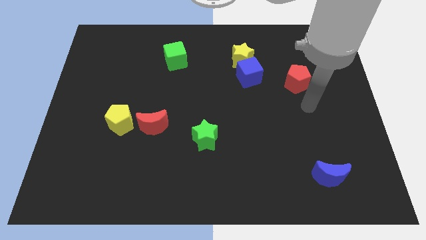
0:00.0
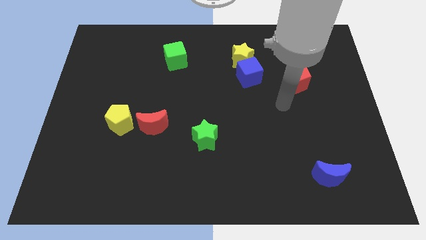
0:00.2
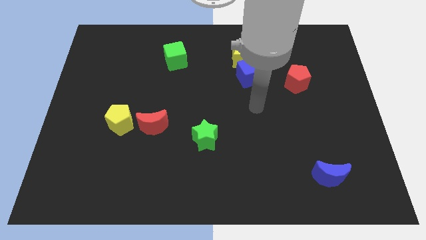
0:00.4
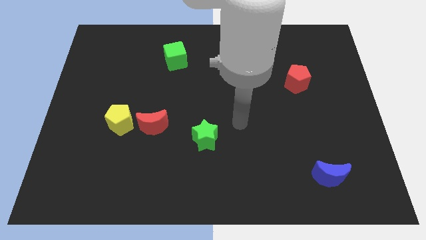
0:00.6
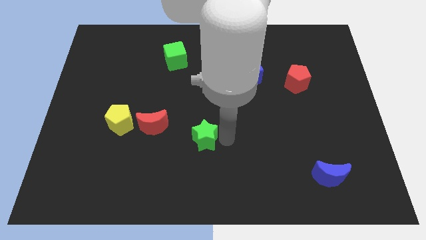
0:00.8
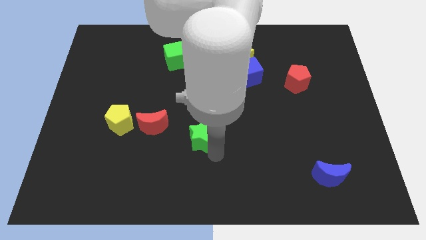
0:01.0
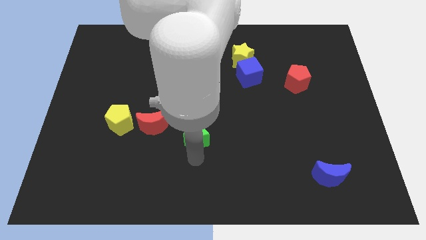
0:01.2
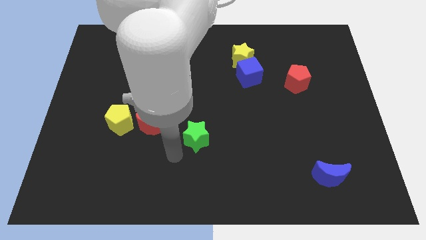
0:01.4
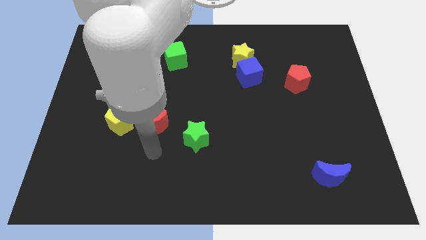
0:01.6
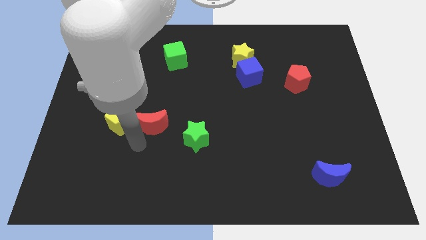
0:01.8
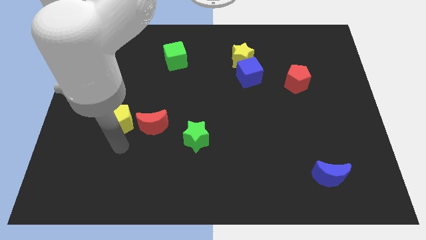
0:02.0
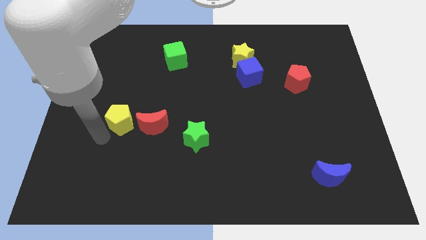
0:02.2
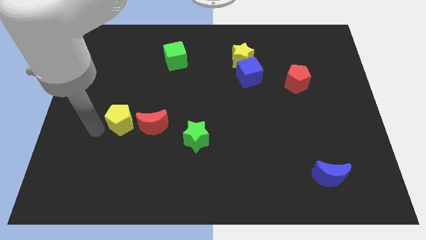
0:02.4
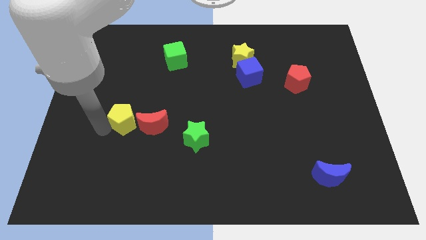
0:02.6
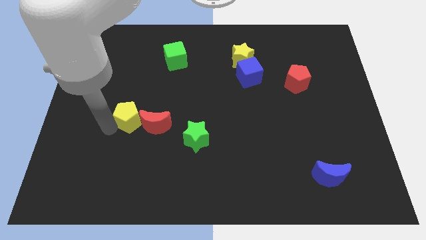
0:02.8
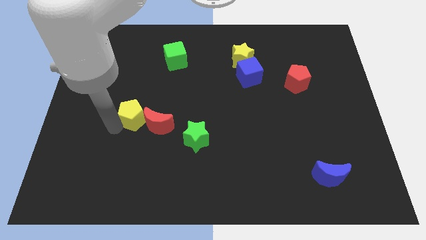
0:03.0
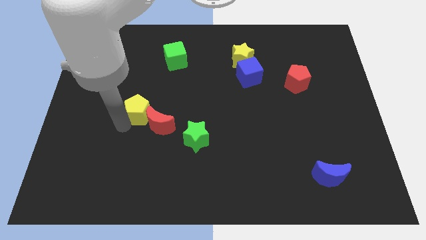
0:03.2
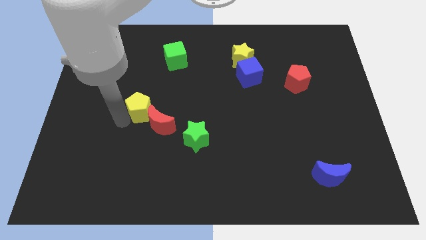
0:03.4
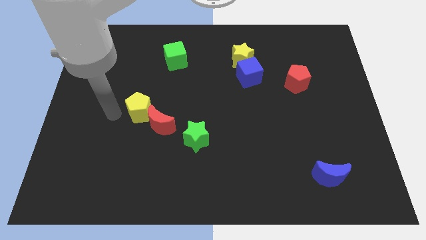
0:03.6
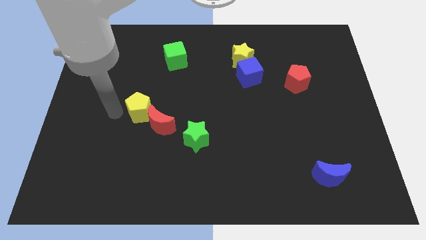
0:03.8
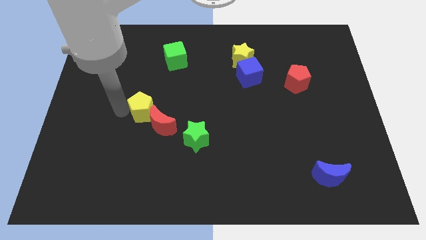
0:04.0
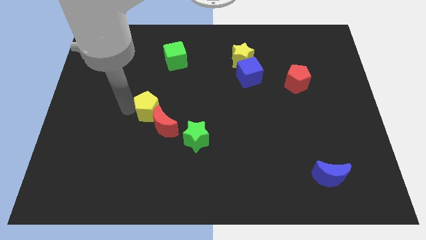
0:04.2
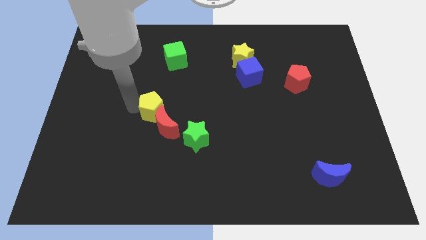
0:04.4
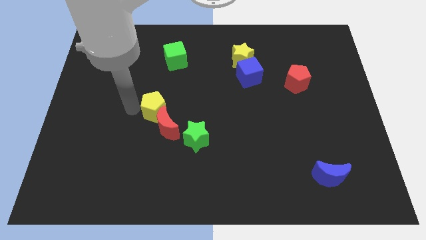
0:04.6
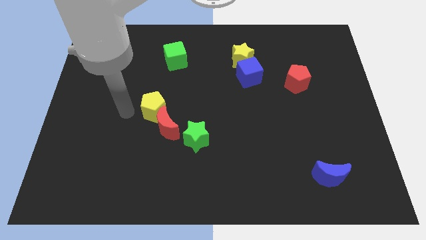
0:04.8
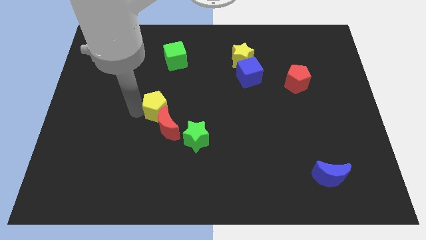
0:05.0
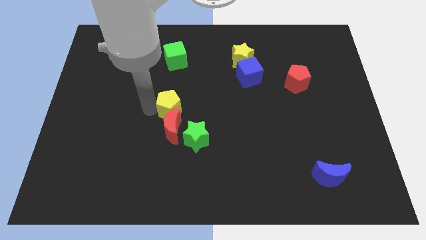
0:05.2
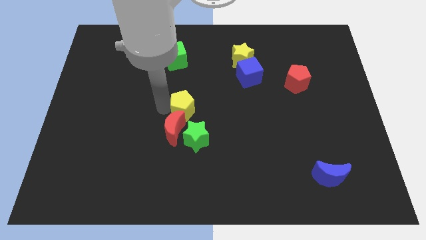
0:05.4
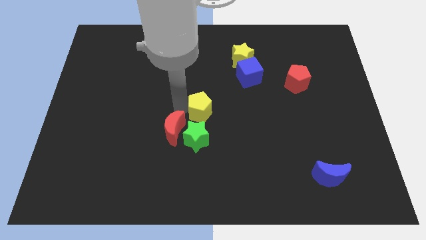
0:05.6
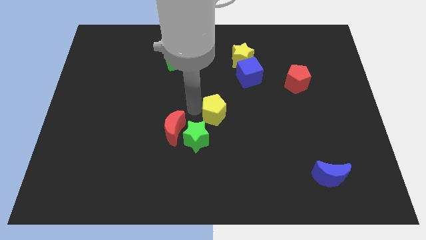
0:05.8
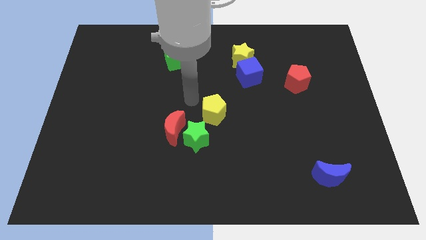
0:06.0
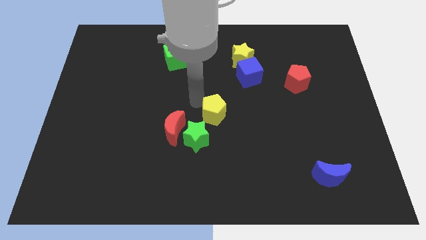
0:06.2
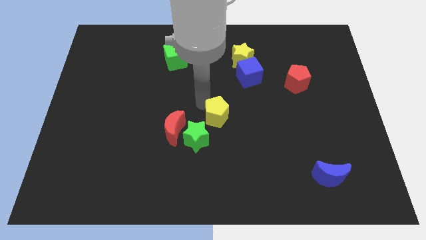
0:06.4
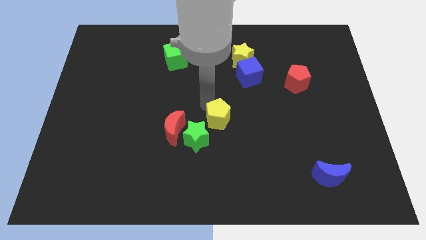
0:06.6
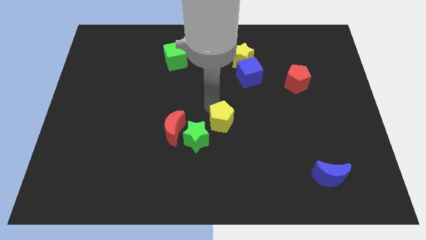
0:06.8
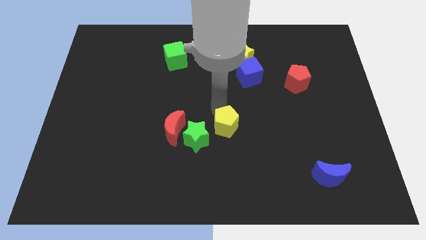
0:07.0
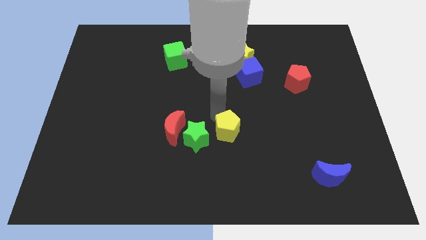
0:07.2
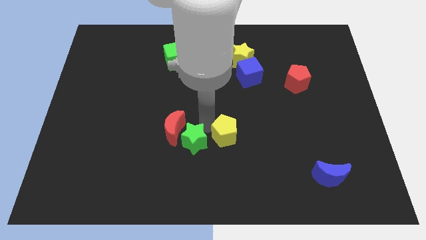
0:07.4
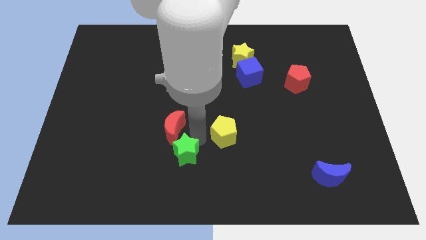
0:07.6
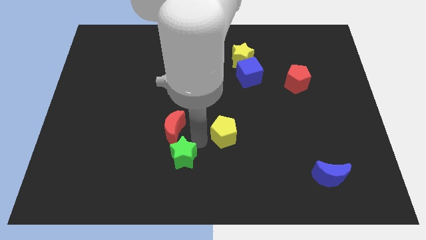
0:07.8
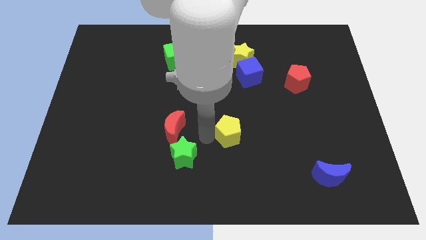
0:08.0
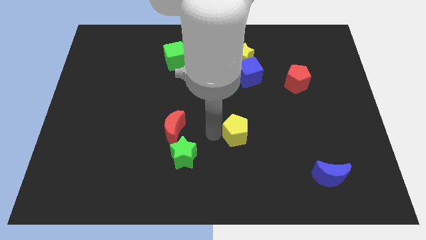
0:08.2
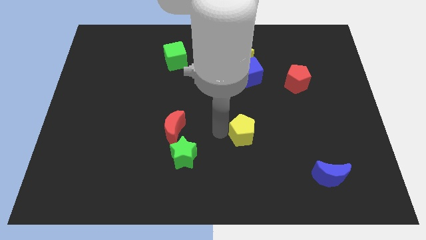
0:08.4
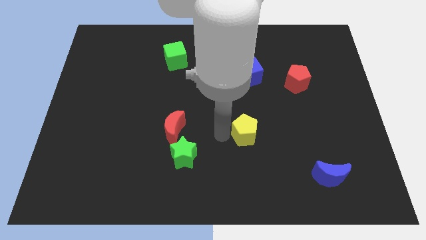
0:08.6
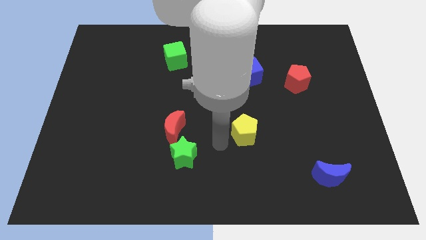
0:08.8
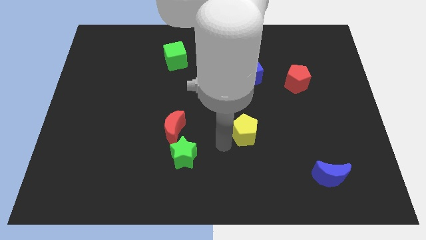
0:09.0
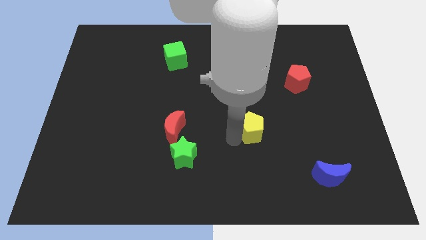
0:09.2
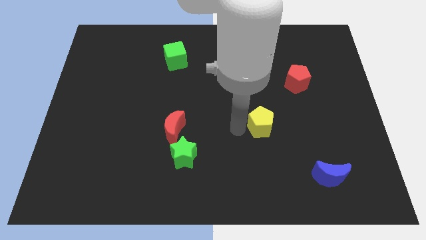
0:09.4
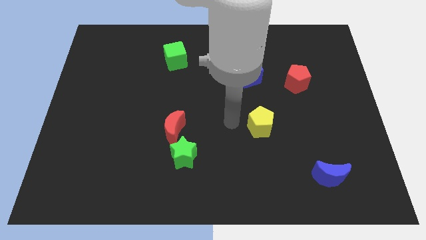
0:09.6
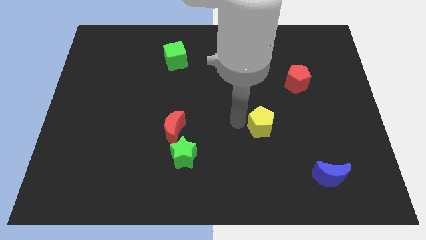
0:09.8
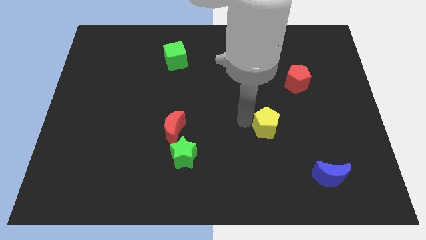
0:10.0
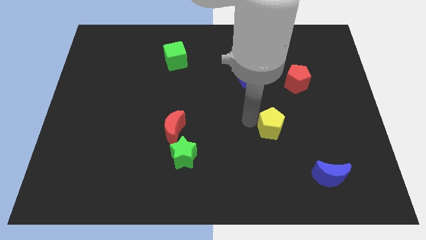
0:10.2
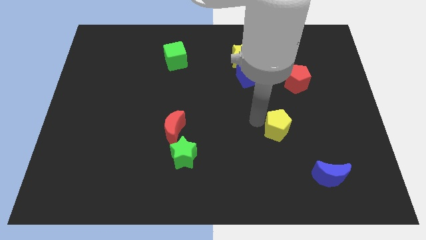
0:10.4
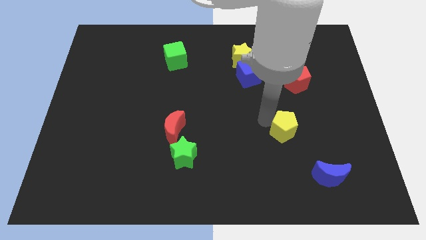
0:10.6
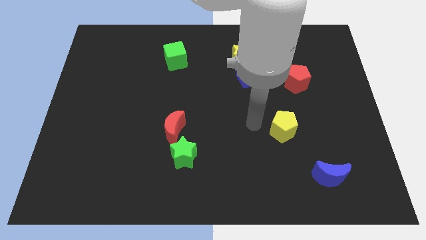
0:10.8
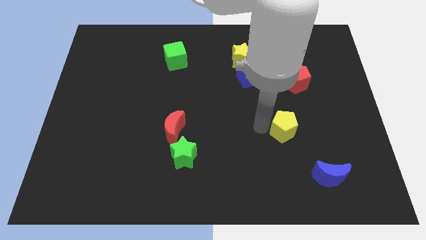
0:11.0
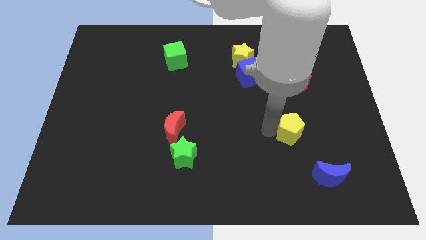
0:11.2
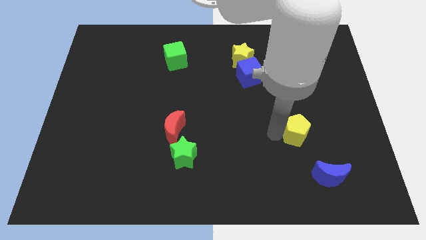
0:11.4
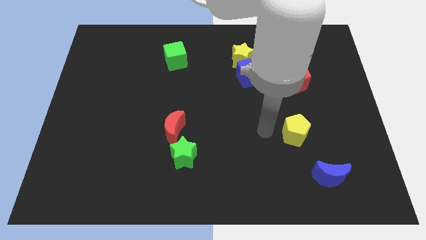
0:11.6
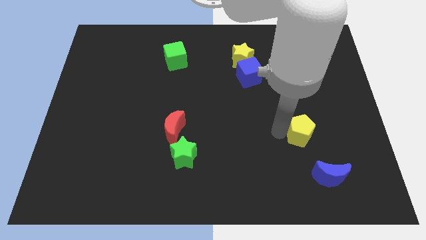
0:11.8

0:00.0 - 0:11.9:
put the yellow pentagon above the blue moon

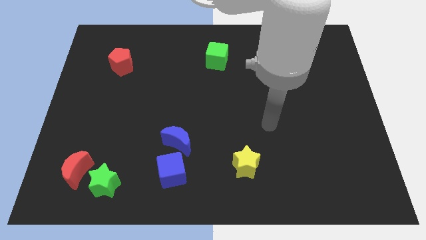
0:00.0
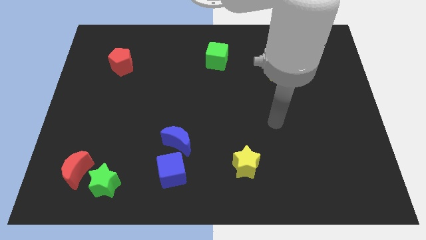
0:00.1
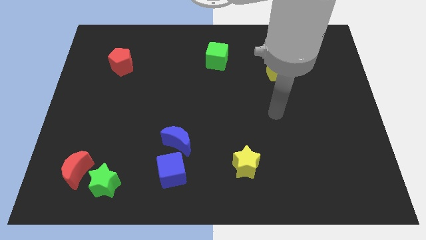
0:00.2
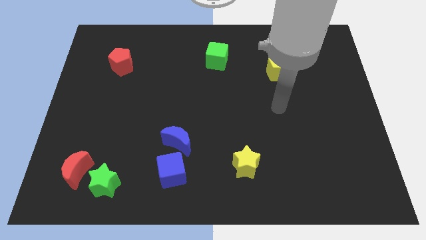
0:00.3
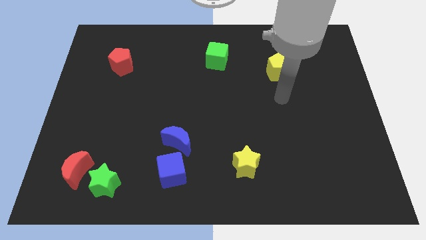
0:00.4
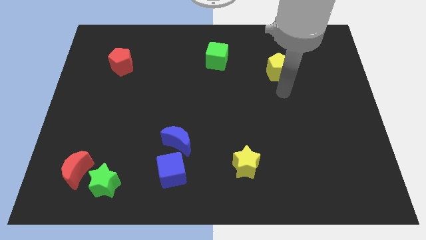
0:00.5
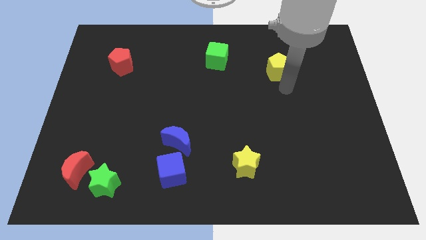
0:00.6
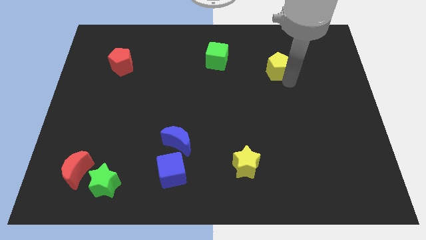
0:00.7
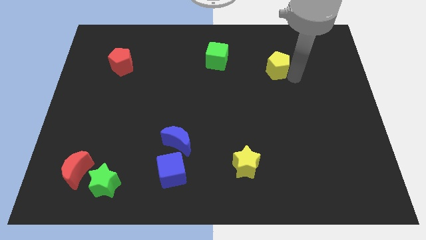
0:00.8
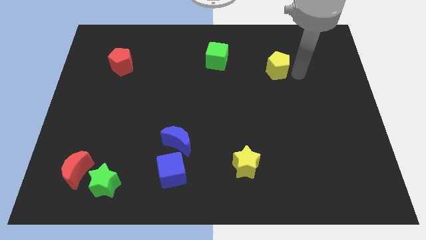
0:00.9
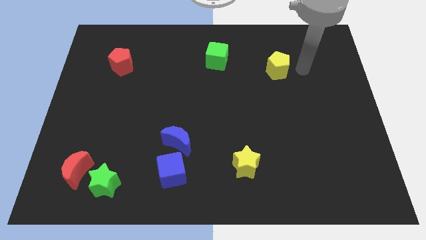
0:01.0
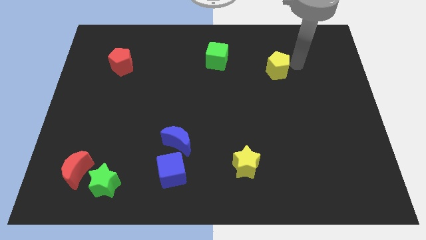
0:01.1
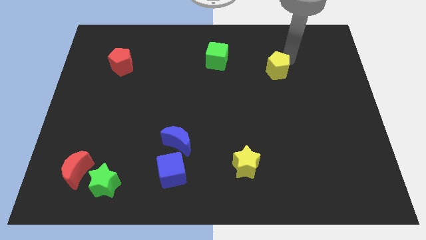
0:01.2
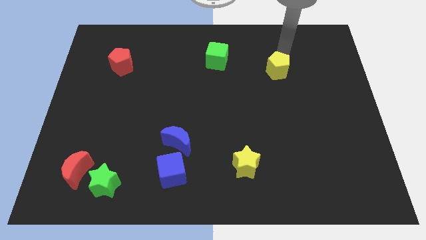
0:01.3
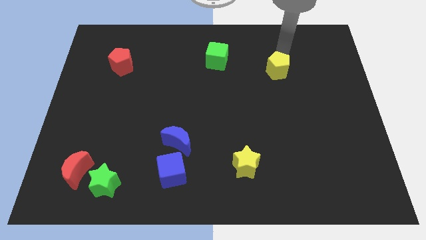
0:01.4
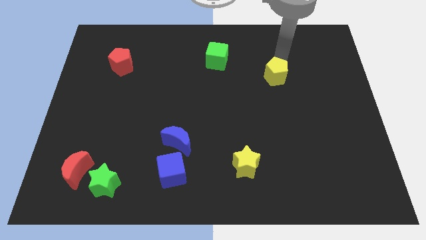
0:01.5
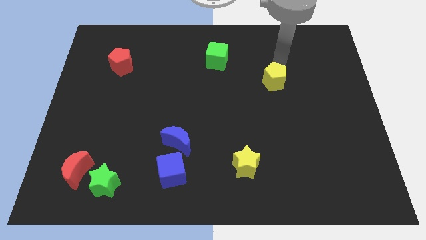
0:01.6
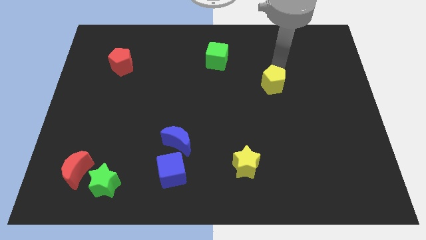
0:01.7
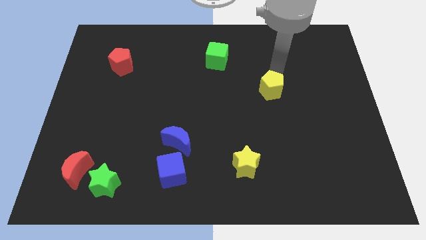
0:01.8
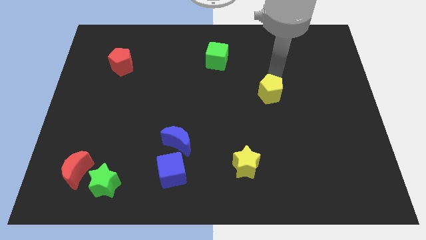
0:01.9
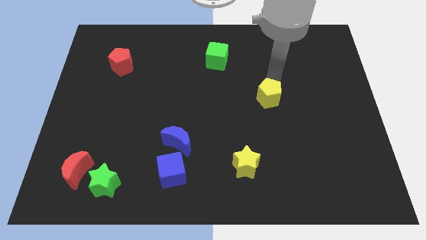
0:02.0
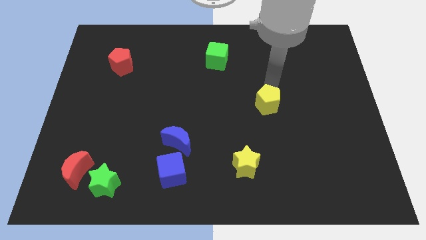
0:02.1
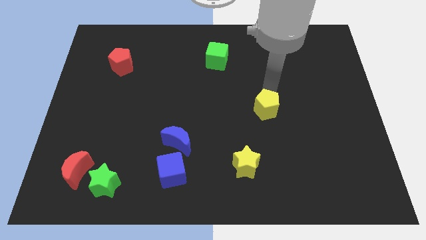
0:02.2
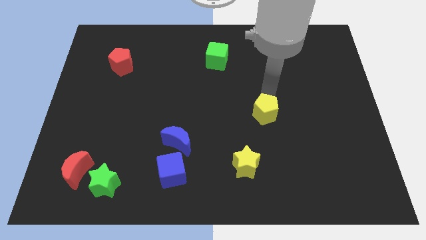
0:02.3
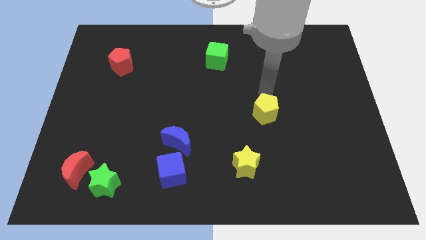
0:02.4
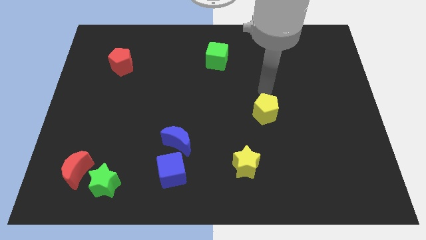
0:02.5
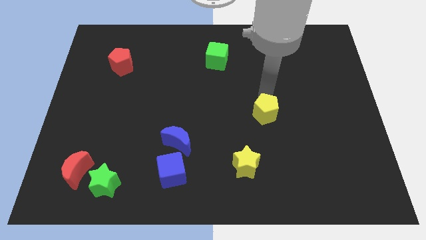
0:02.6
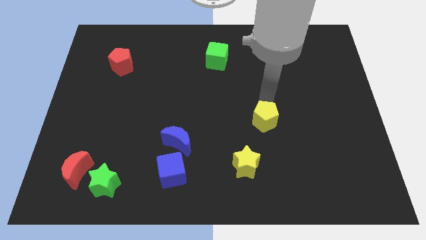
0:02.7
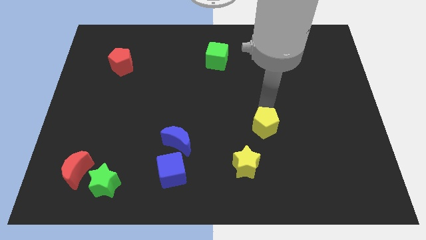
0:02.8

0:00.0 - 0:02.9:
move the yellow pentagon diagonally up and to the right of the yellow star
